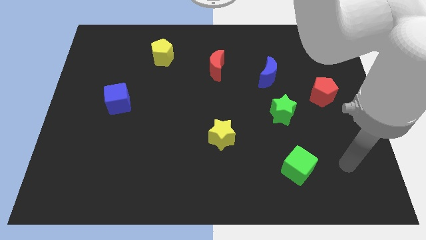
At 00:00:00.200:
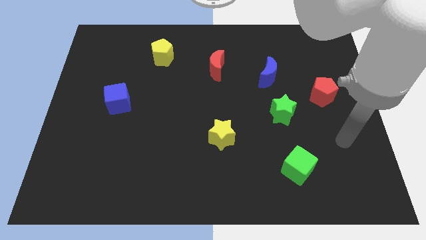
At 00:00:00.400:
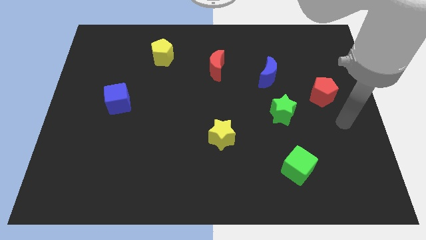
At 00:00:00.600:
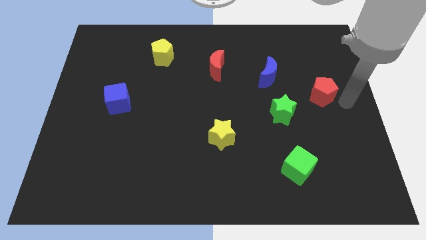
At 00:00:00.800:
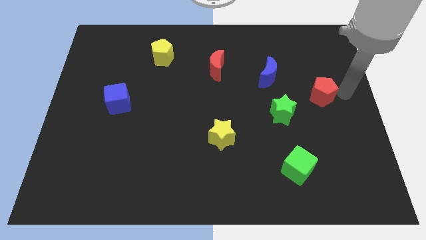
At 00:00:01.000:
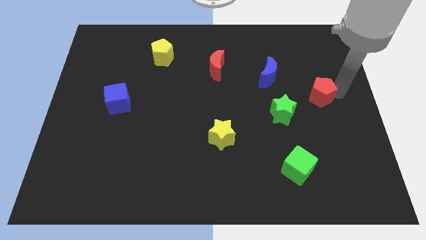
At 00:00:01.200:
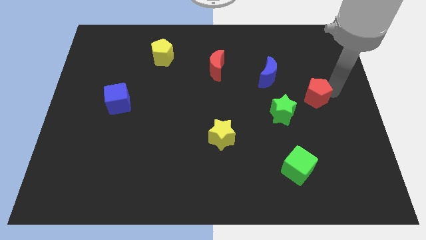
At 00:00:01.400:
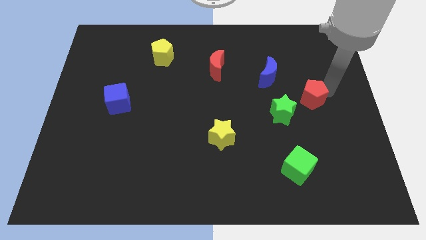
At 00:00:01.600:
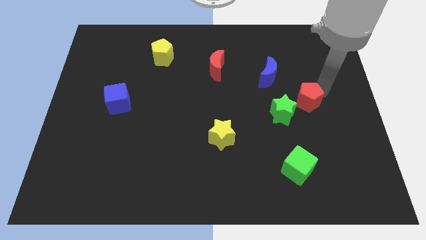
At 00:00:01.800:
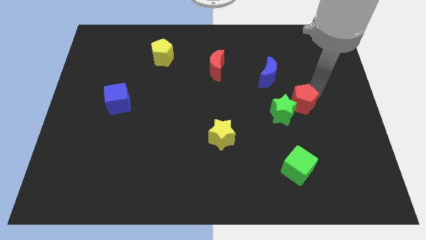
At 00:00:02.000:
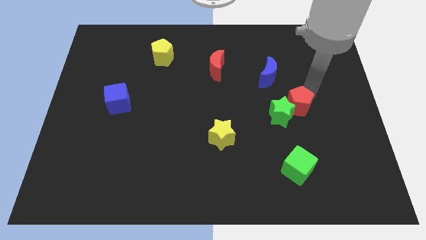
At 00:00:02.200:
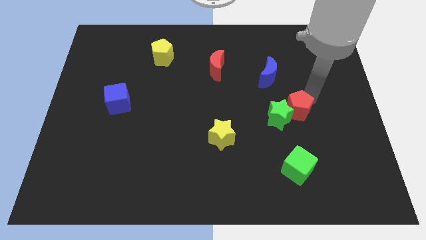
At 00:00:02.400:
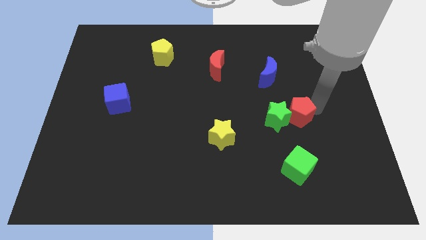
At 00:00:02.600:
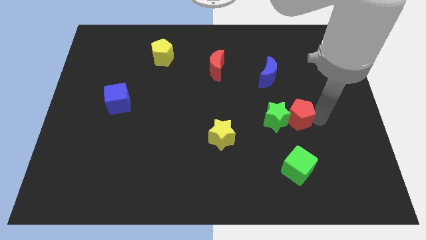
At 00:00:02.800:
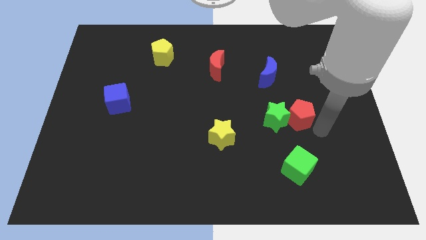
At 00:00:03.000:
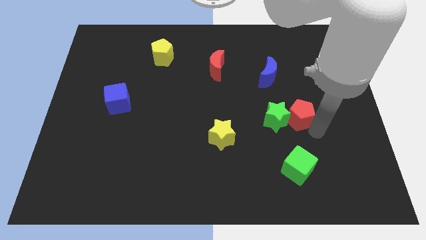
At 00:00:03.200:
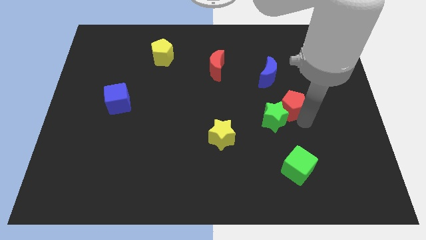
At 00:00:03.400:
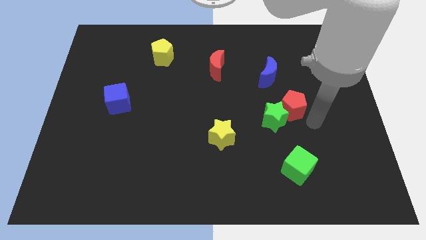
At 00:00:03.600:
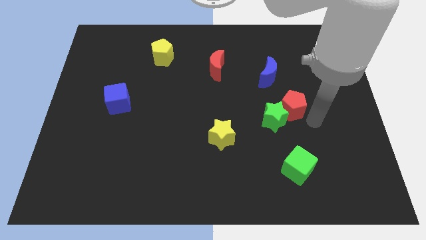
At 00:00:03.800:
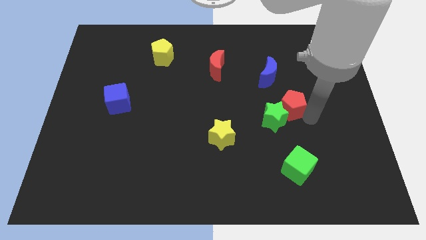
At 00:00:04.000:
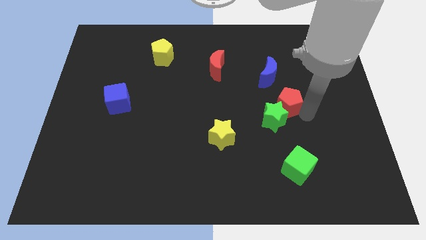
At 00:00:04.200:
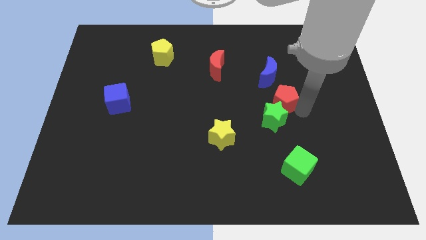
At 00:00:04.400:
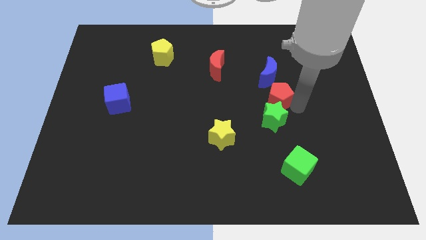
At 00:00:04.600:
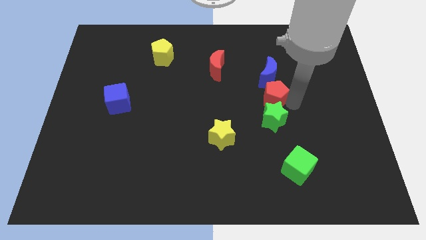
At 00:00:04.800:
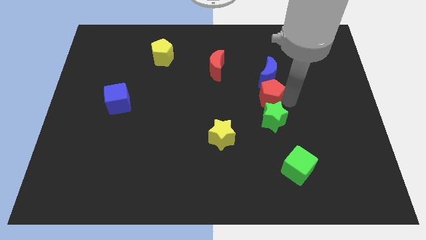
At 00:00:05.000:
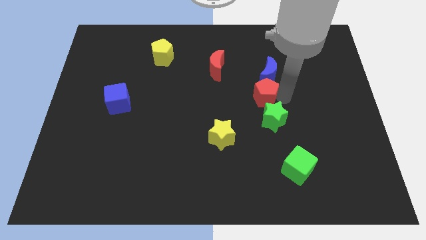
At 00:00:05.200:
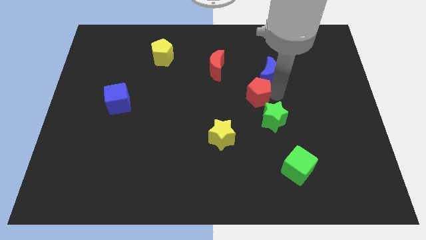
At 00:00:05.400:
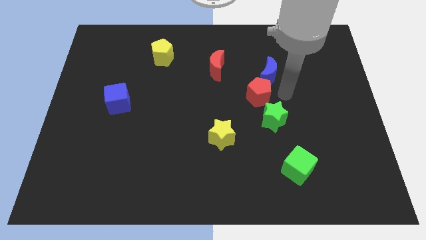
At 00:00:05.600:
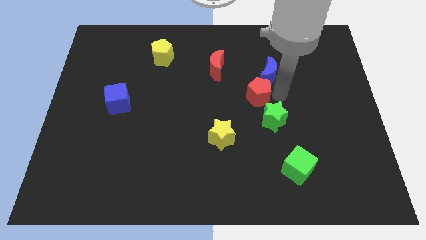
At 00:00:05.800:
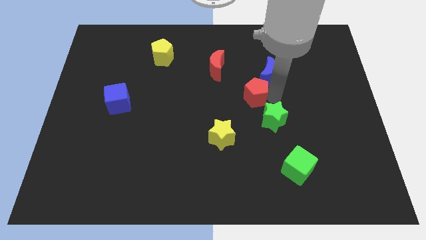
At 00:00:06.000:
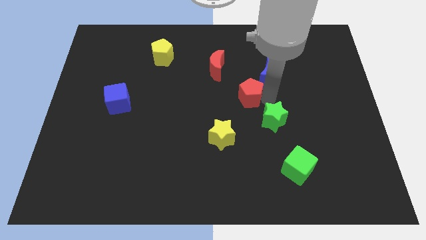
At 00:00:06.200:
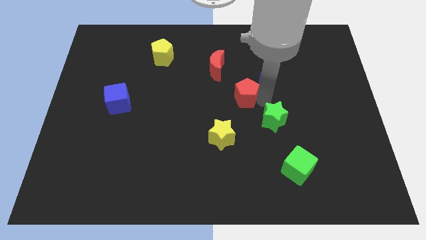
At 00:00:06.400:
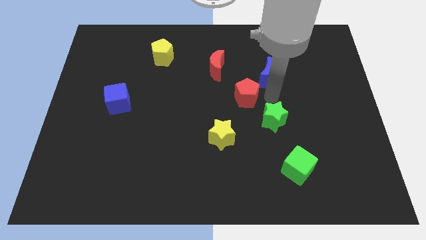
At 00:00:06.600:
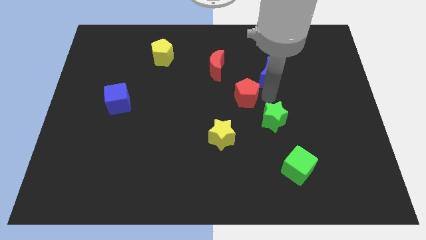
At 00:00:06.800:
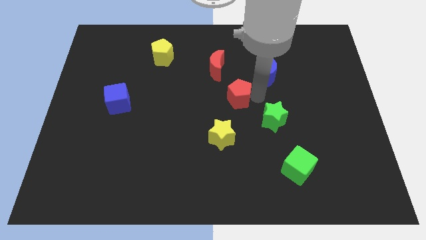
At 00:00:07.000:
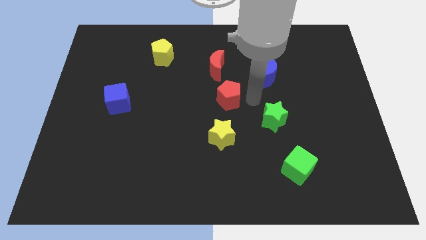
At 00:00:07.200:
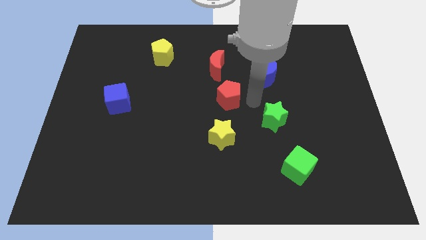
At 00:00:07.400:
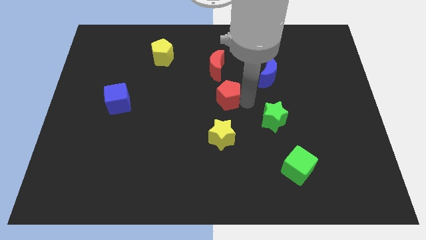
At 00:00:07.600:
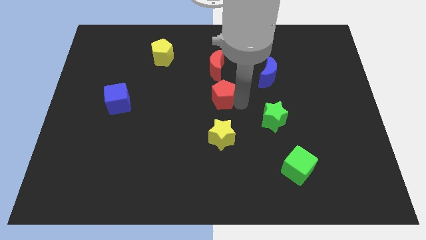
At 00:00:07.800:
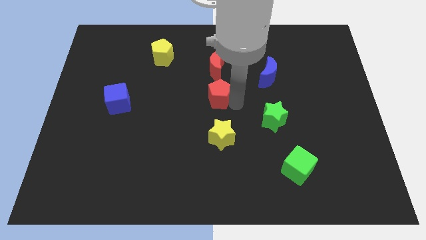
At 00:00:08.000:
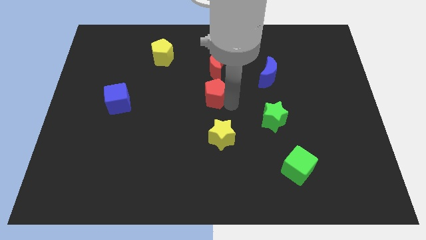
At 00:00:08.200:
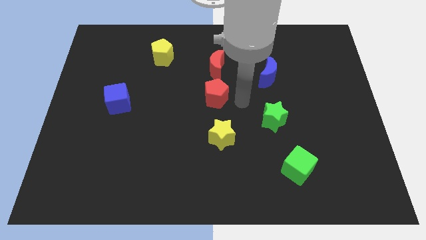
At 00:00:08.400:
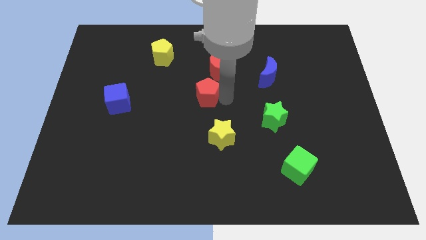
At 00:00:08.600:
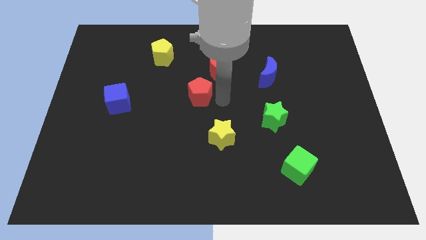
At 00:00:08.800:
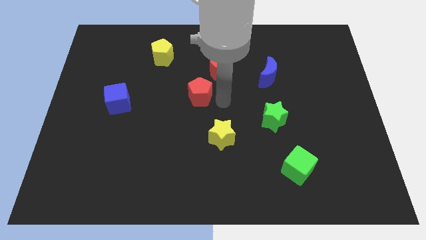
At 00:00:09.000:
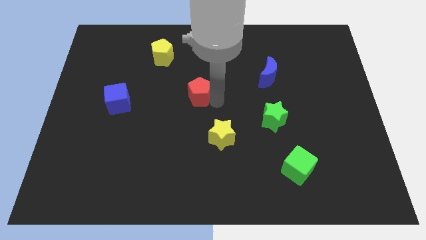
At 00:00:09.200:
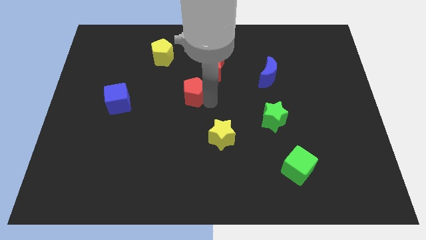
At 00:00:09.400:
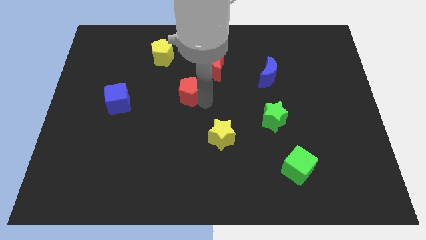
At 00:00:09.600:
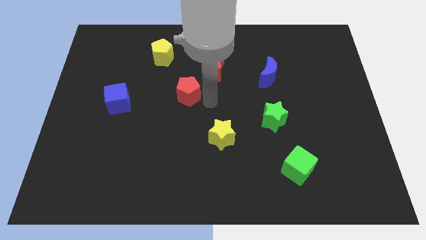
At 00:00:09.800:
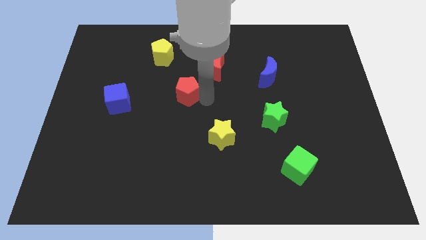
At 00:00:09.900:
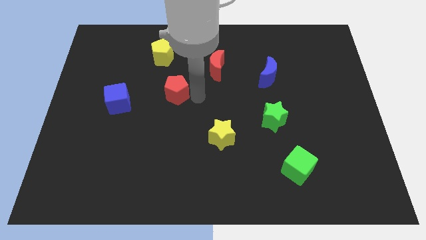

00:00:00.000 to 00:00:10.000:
push the red pentagon to the bottom side of the yellow pentagon

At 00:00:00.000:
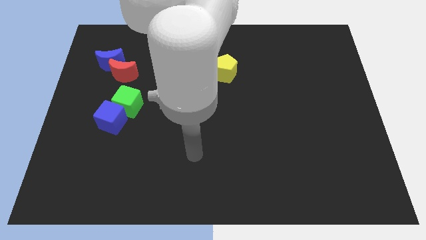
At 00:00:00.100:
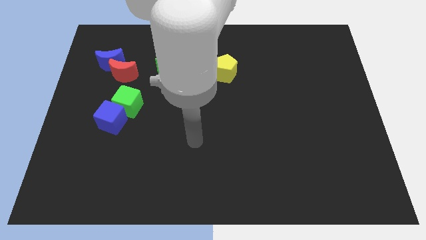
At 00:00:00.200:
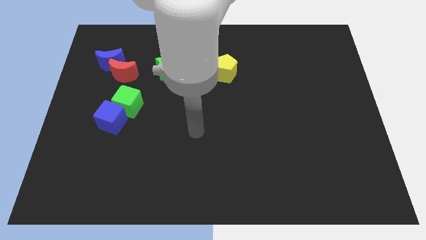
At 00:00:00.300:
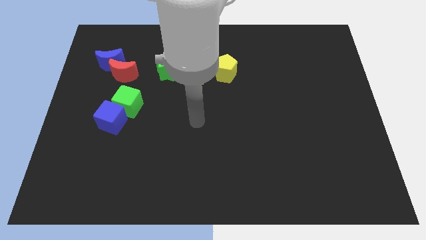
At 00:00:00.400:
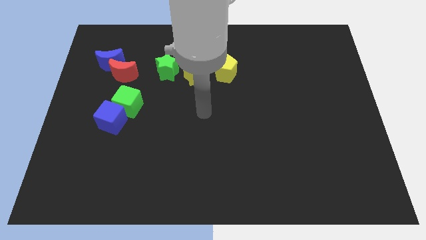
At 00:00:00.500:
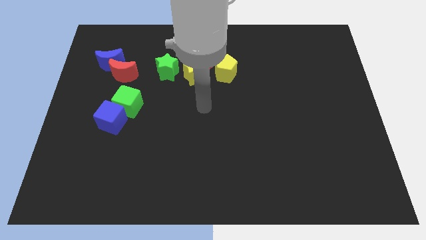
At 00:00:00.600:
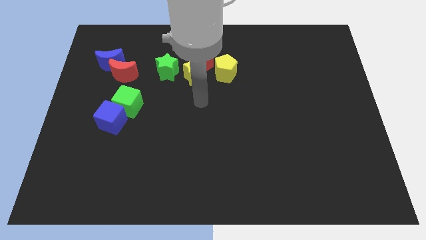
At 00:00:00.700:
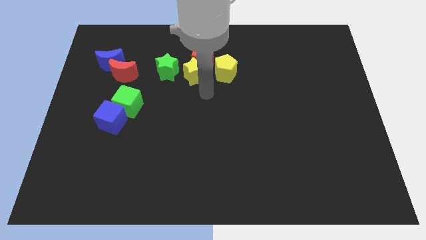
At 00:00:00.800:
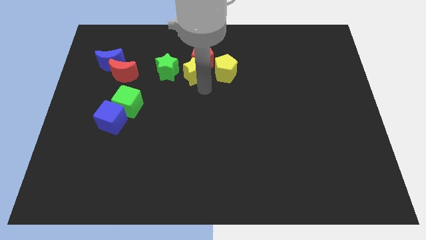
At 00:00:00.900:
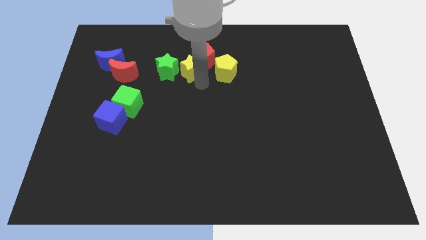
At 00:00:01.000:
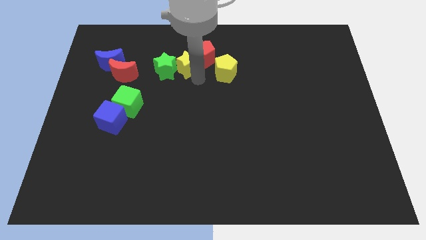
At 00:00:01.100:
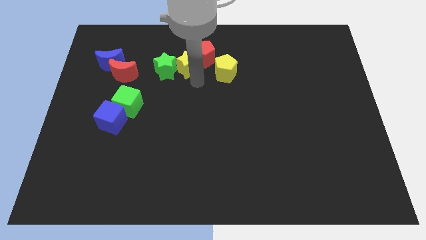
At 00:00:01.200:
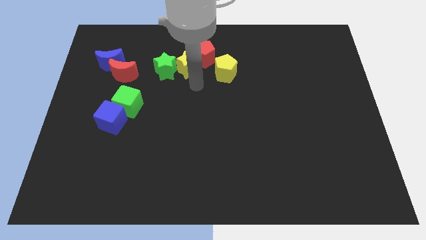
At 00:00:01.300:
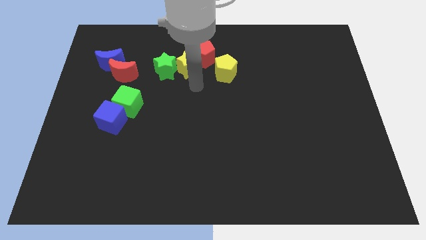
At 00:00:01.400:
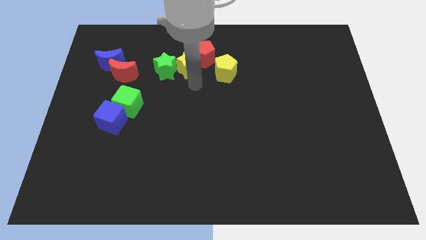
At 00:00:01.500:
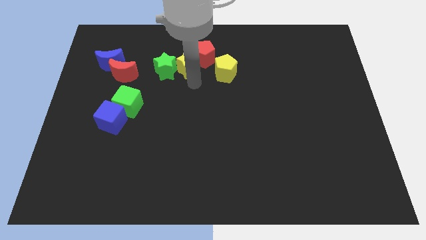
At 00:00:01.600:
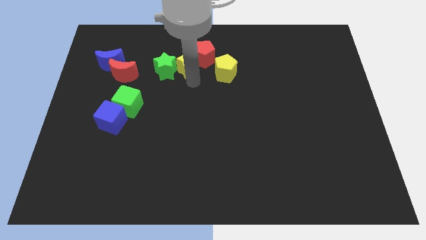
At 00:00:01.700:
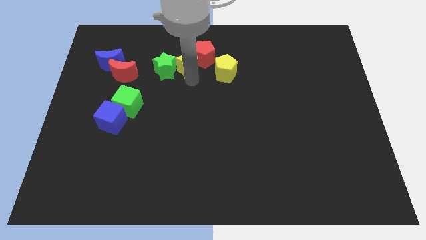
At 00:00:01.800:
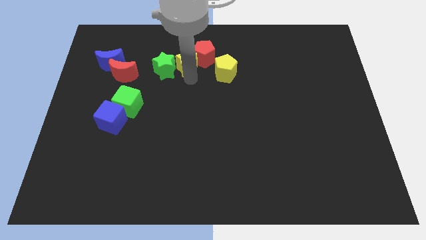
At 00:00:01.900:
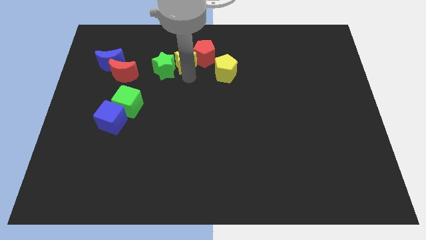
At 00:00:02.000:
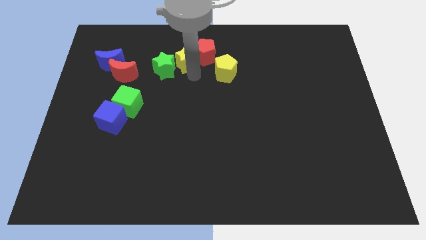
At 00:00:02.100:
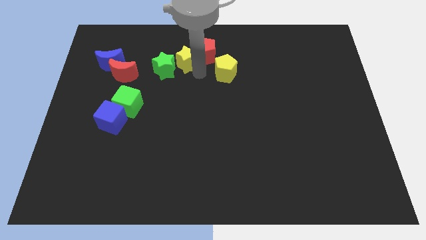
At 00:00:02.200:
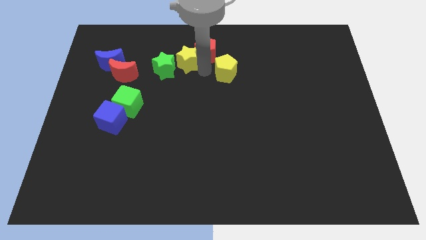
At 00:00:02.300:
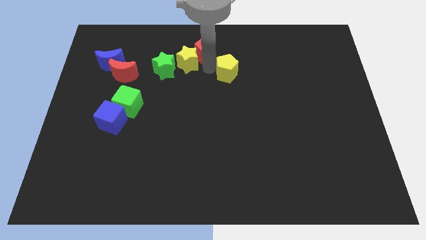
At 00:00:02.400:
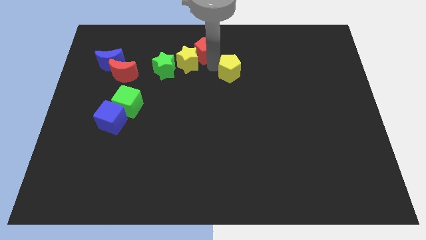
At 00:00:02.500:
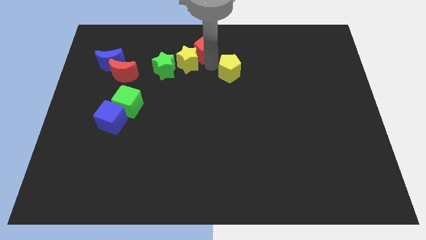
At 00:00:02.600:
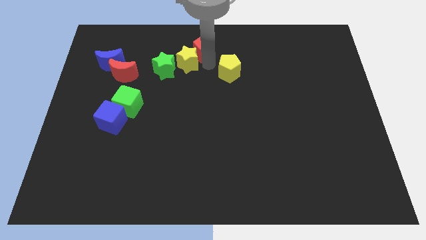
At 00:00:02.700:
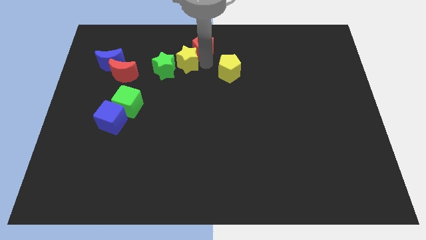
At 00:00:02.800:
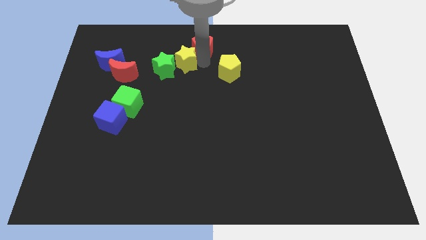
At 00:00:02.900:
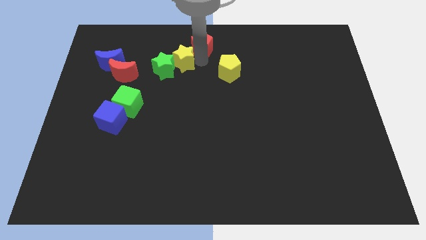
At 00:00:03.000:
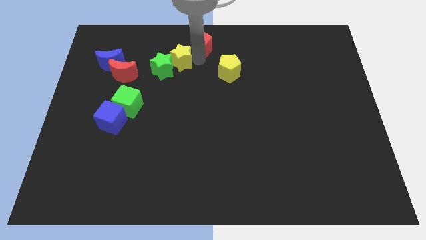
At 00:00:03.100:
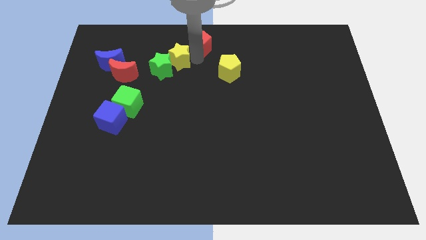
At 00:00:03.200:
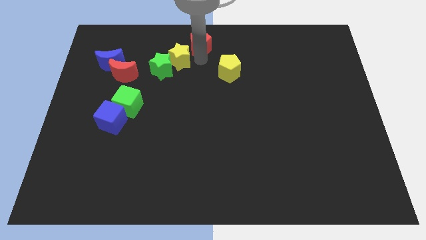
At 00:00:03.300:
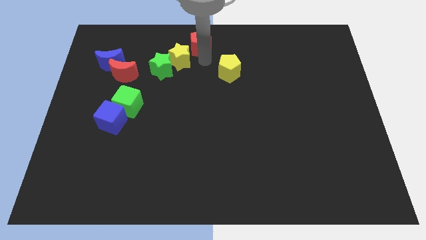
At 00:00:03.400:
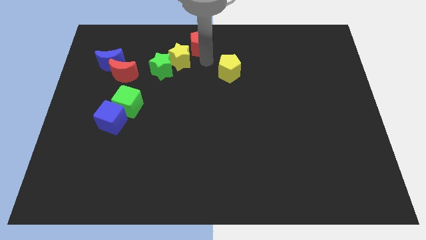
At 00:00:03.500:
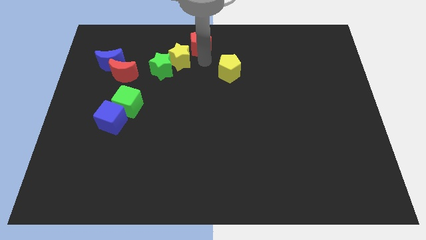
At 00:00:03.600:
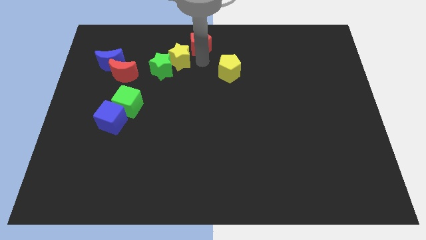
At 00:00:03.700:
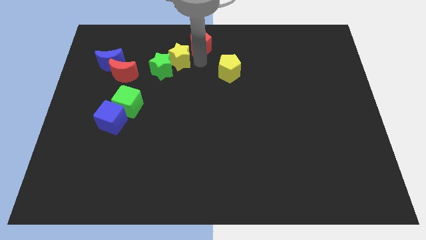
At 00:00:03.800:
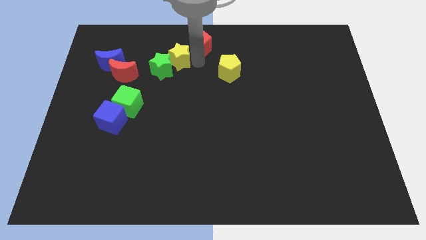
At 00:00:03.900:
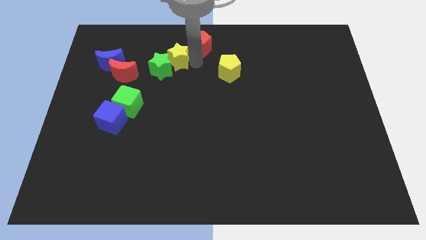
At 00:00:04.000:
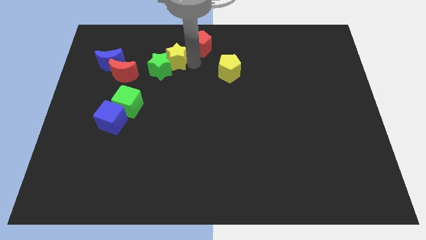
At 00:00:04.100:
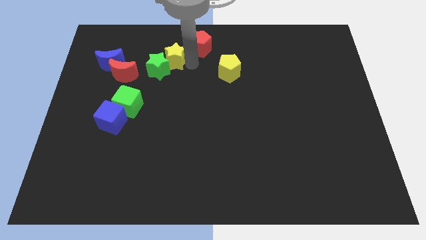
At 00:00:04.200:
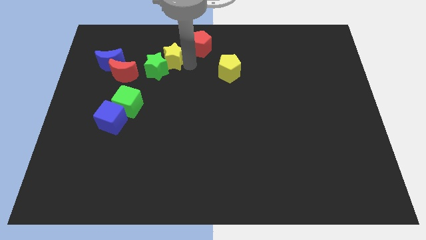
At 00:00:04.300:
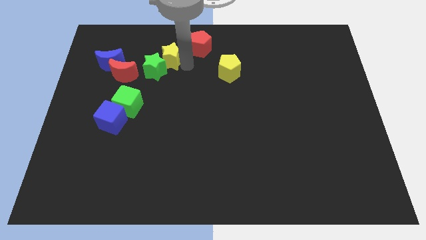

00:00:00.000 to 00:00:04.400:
move the yellow star to the right of the blue moon
